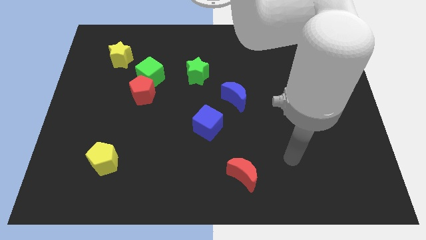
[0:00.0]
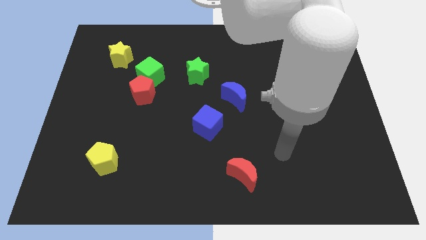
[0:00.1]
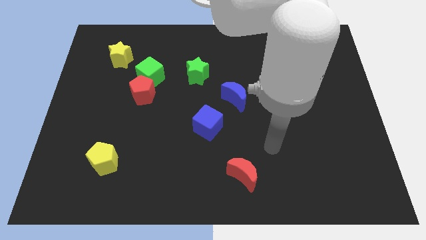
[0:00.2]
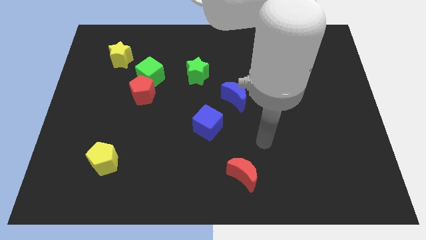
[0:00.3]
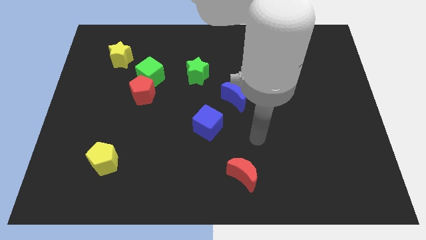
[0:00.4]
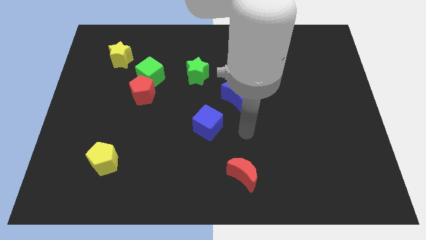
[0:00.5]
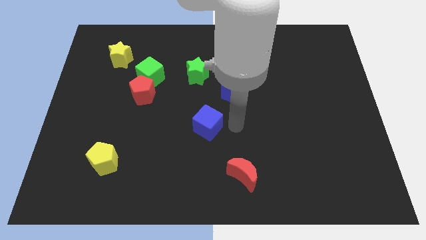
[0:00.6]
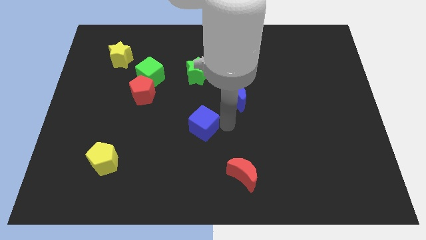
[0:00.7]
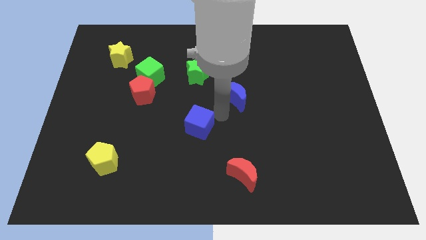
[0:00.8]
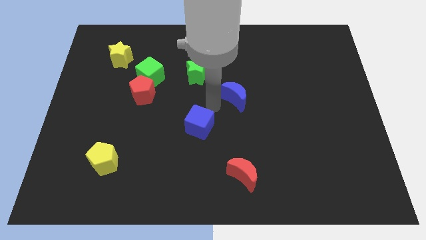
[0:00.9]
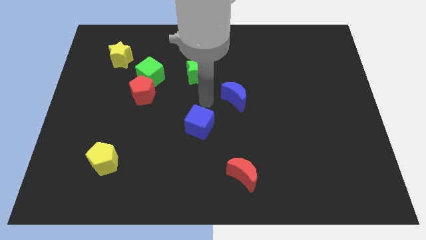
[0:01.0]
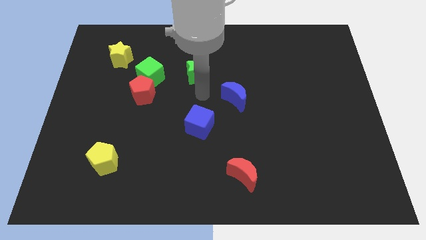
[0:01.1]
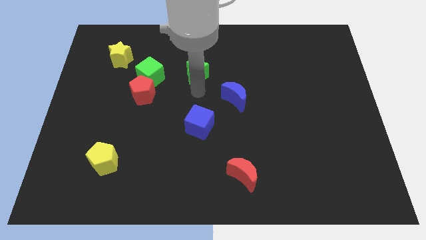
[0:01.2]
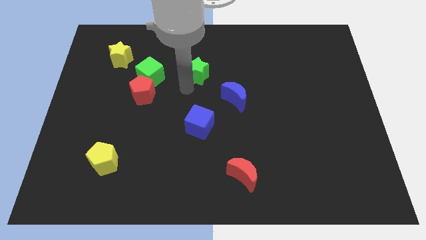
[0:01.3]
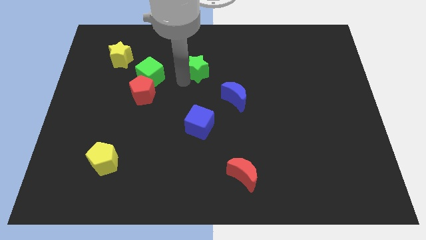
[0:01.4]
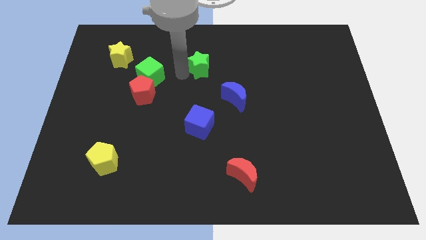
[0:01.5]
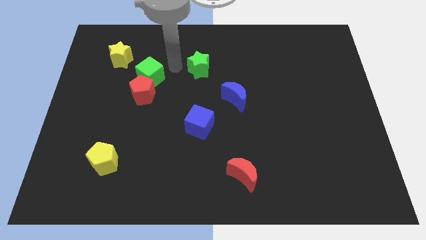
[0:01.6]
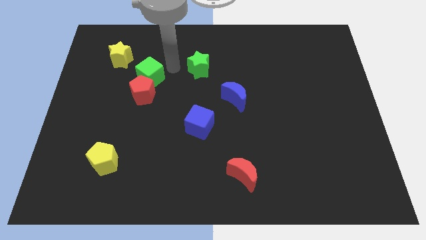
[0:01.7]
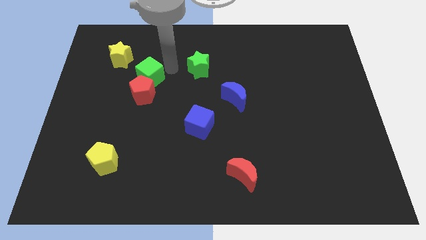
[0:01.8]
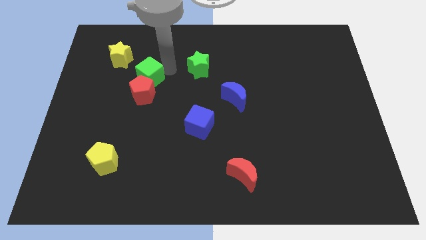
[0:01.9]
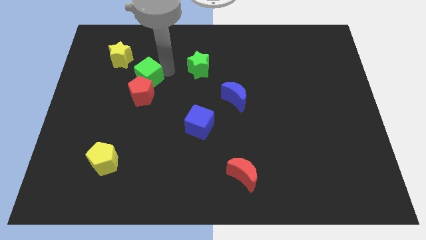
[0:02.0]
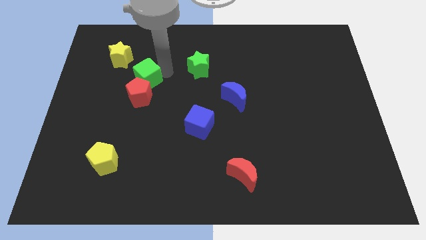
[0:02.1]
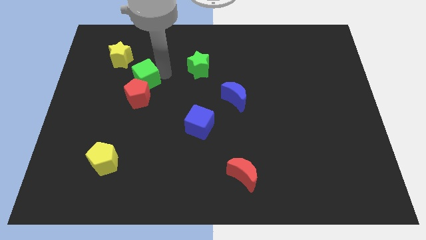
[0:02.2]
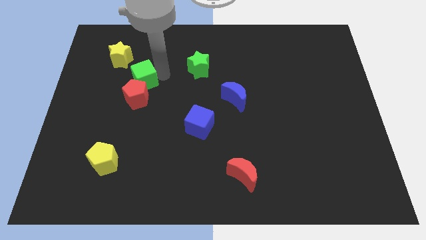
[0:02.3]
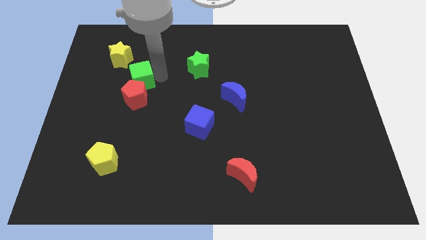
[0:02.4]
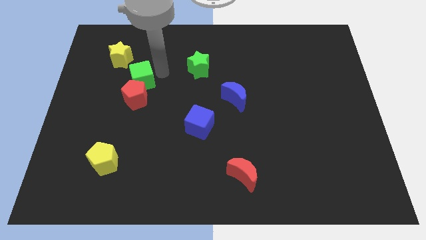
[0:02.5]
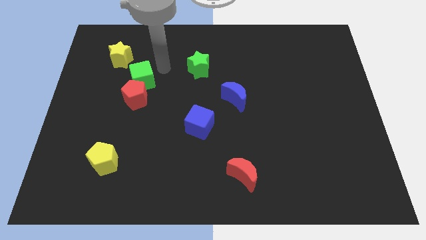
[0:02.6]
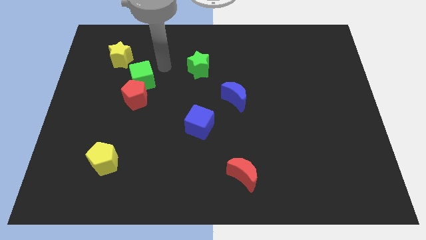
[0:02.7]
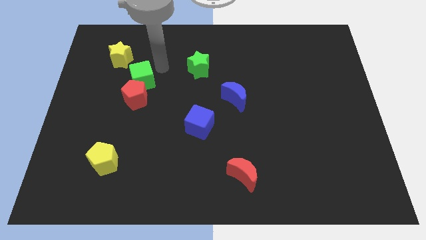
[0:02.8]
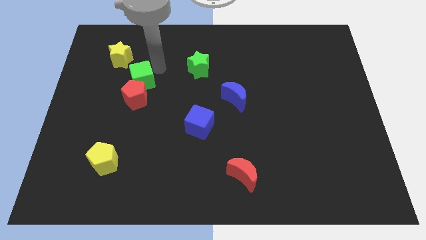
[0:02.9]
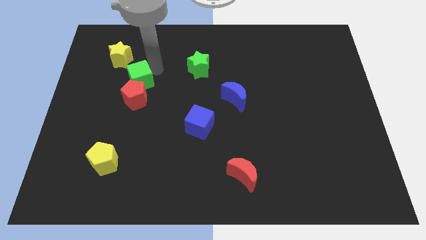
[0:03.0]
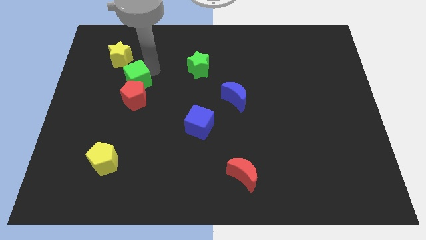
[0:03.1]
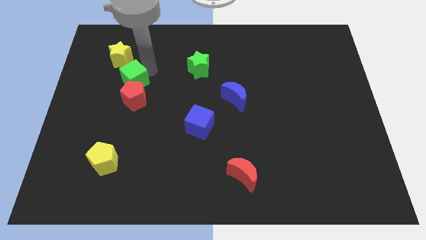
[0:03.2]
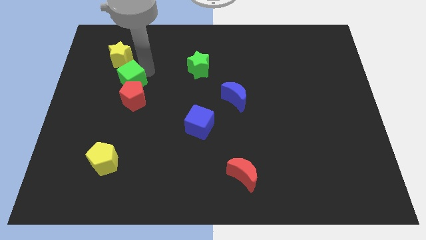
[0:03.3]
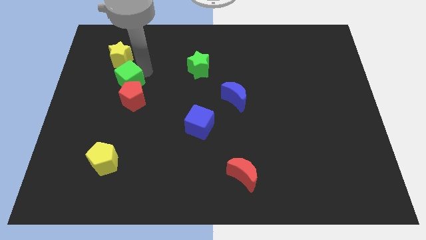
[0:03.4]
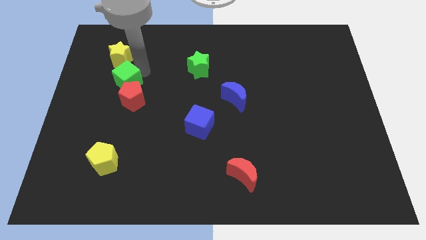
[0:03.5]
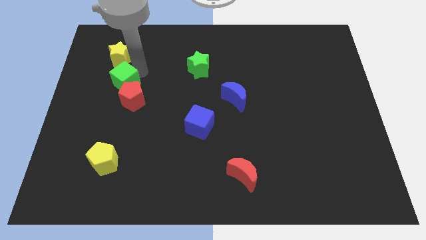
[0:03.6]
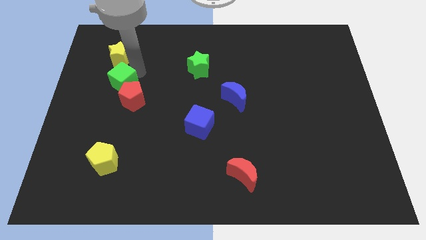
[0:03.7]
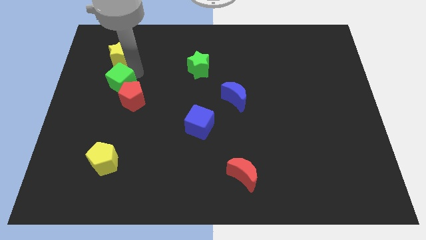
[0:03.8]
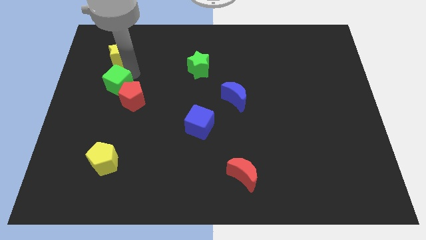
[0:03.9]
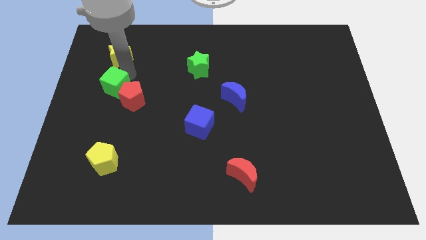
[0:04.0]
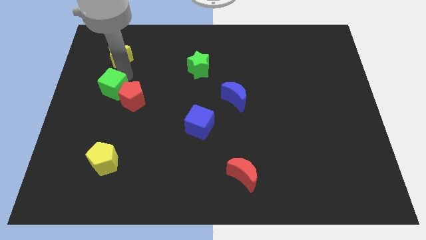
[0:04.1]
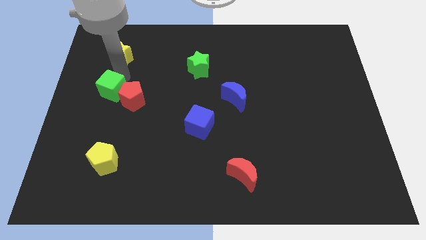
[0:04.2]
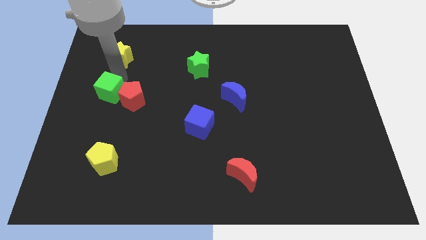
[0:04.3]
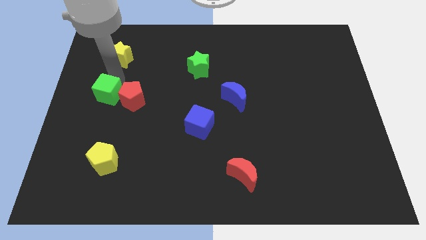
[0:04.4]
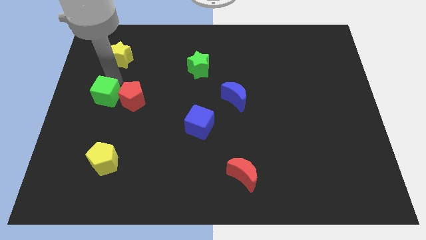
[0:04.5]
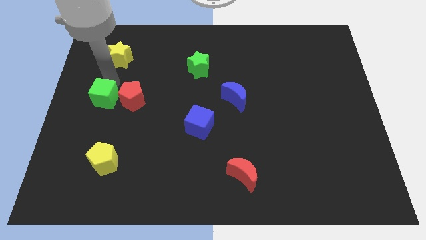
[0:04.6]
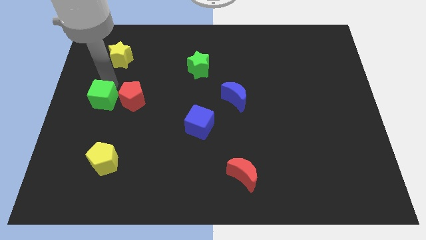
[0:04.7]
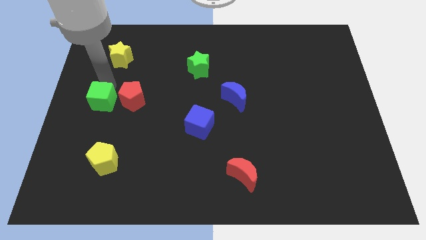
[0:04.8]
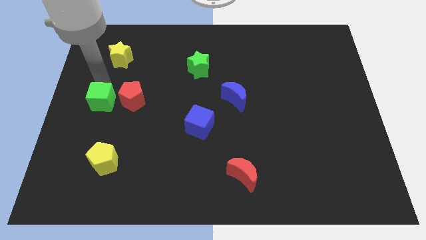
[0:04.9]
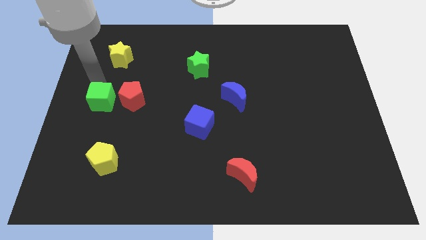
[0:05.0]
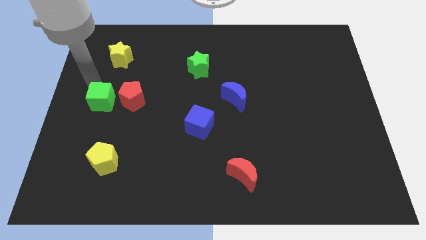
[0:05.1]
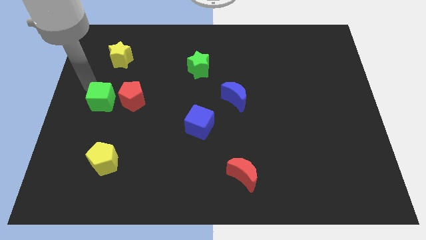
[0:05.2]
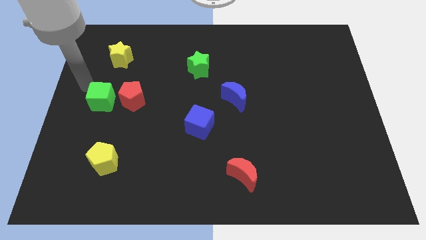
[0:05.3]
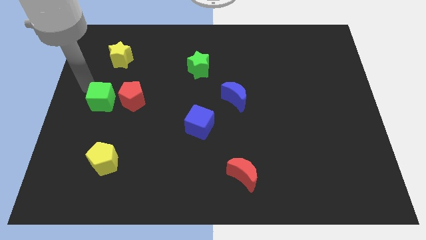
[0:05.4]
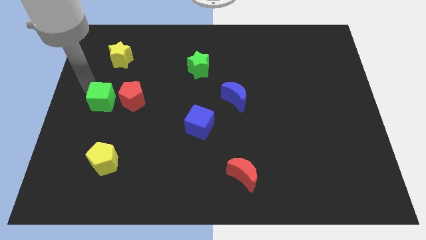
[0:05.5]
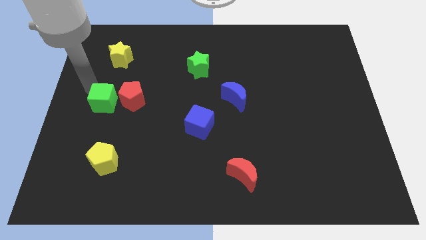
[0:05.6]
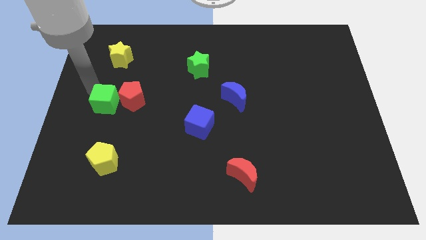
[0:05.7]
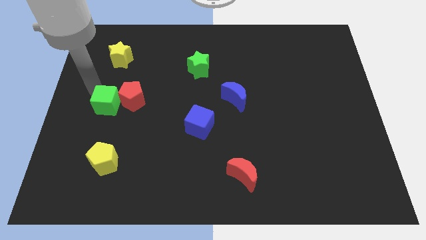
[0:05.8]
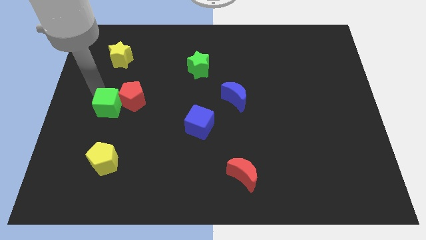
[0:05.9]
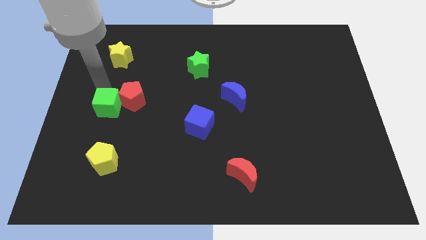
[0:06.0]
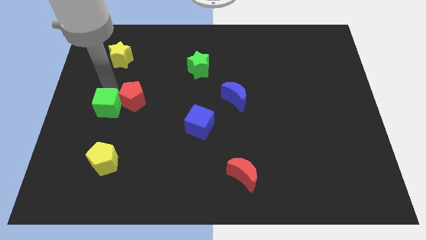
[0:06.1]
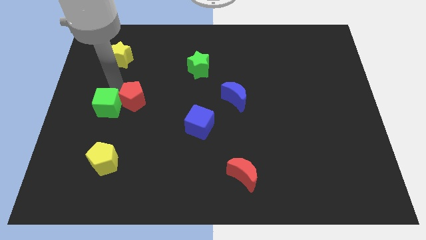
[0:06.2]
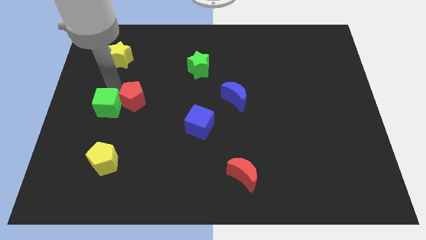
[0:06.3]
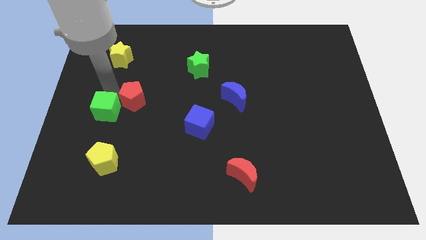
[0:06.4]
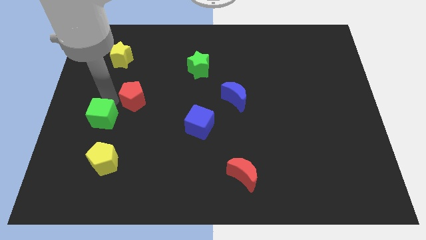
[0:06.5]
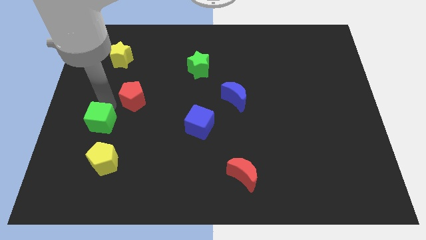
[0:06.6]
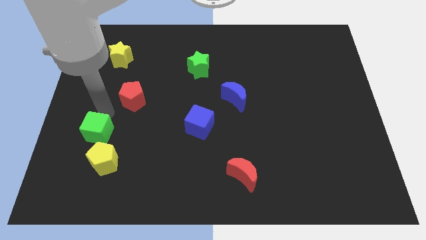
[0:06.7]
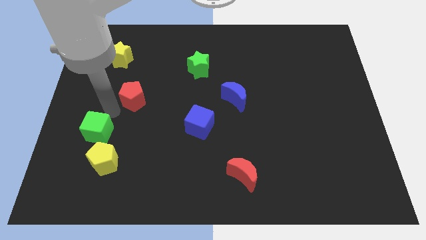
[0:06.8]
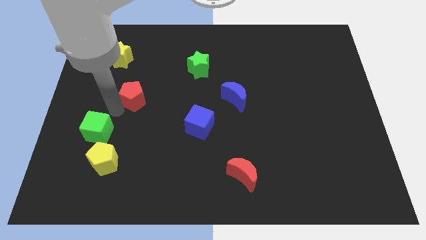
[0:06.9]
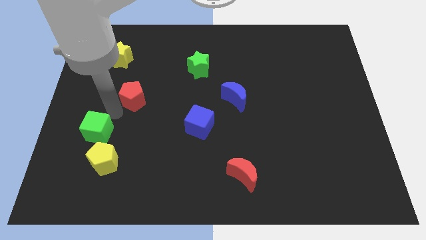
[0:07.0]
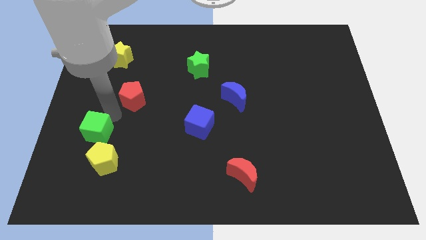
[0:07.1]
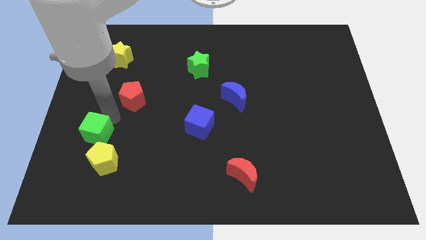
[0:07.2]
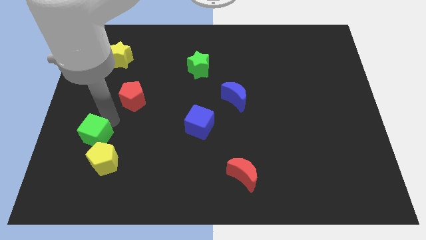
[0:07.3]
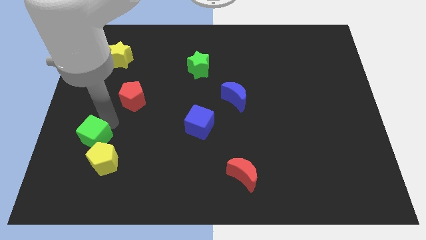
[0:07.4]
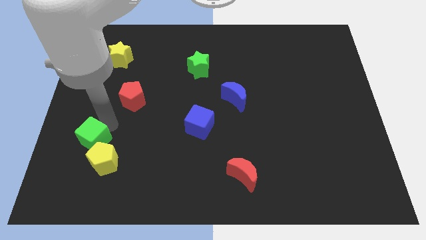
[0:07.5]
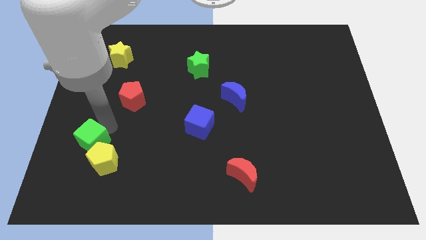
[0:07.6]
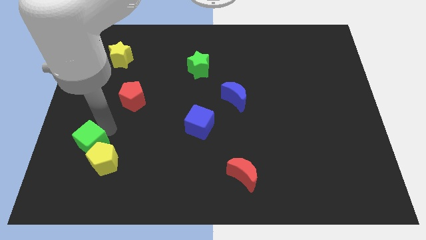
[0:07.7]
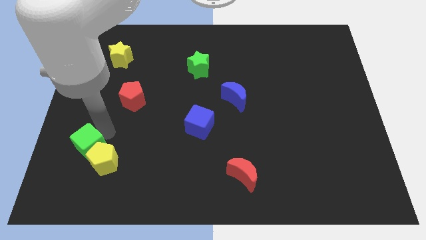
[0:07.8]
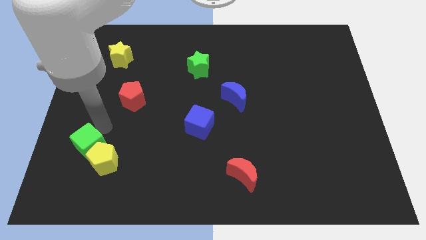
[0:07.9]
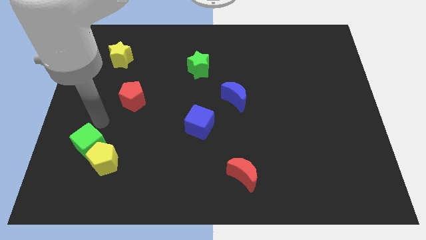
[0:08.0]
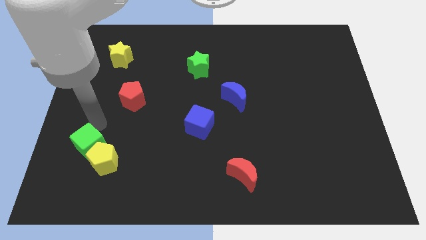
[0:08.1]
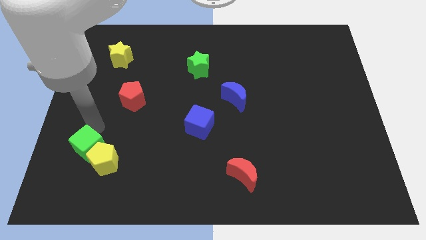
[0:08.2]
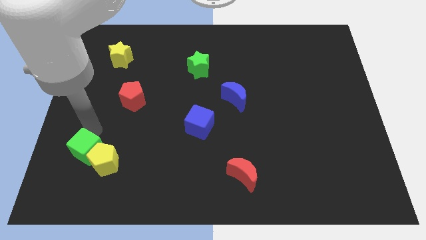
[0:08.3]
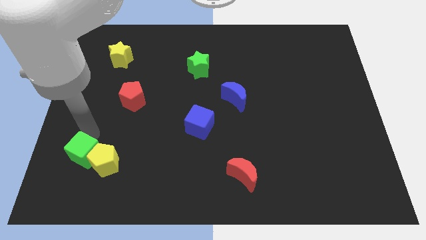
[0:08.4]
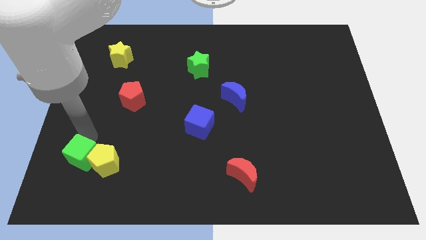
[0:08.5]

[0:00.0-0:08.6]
slide the green cube to the bottom left side of the yellow pentagon
